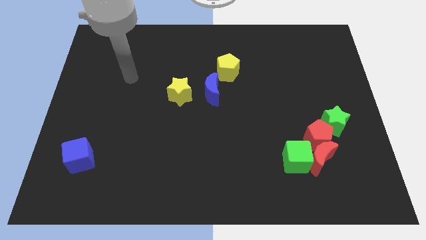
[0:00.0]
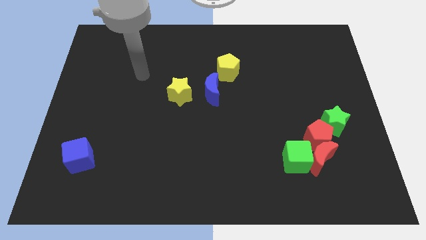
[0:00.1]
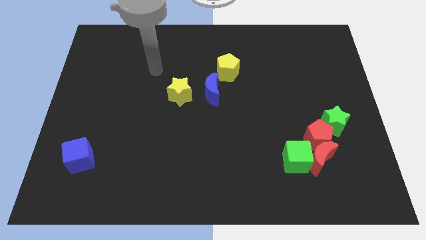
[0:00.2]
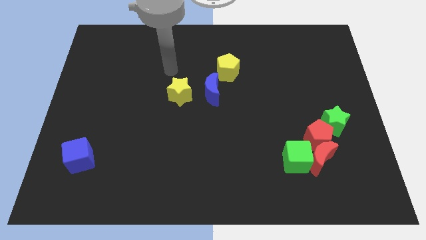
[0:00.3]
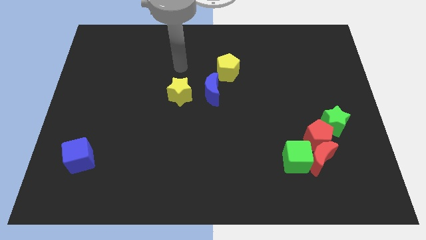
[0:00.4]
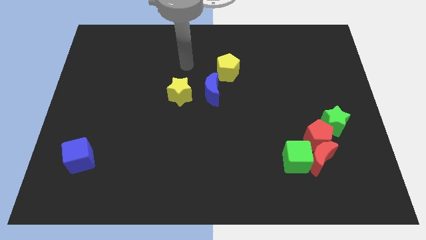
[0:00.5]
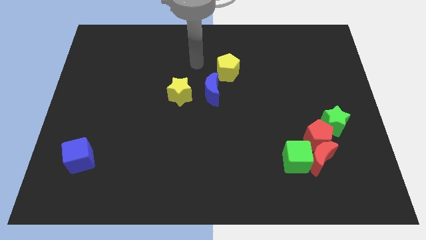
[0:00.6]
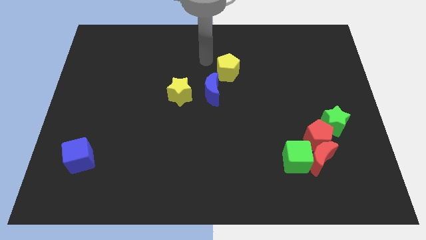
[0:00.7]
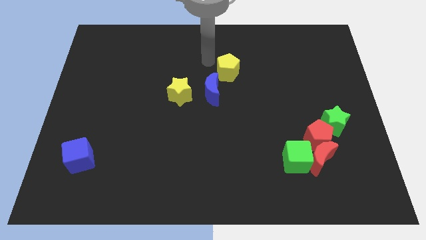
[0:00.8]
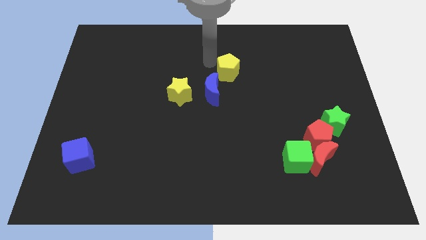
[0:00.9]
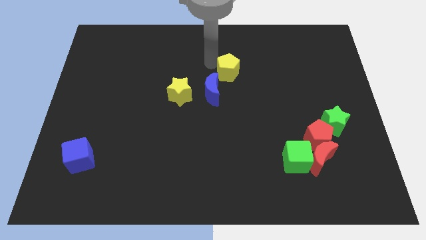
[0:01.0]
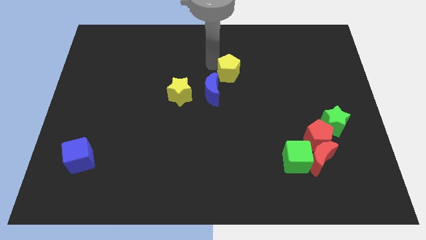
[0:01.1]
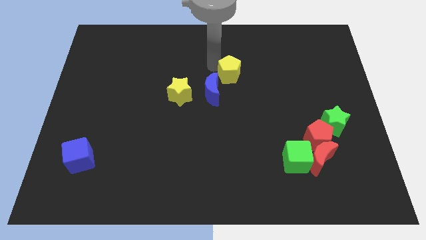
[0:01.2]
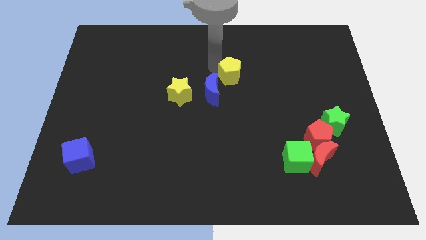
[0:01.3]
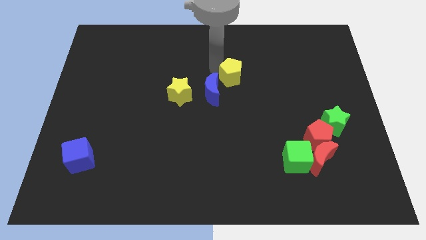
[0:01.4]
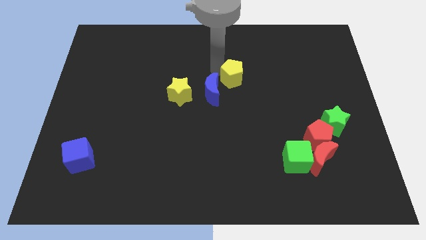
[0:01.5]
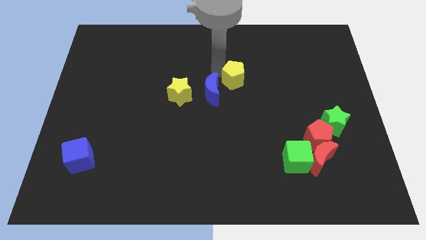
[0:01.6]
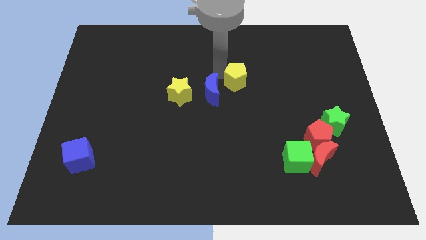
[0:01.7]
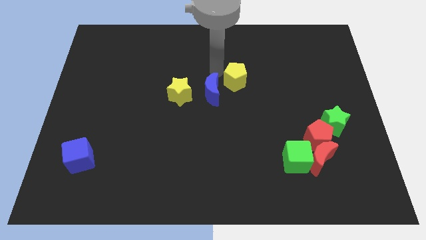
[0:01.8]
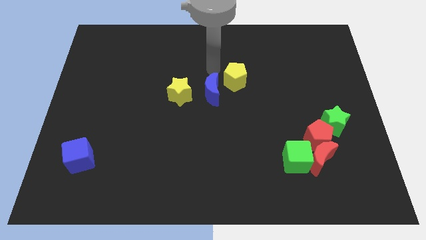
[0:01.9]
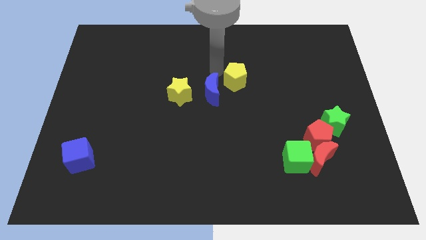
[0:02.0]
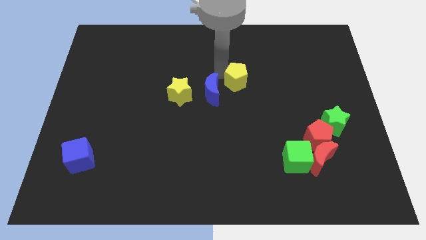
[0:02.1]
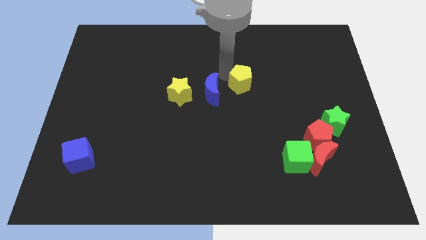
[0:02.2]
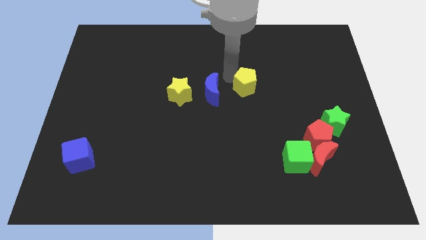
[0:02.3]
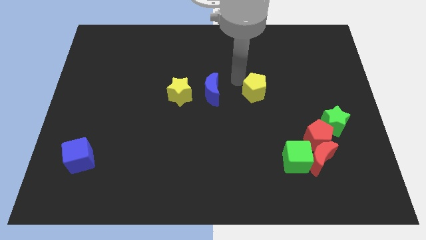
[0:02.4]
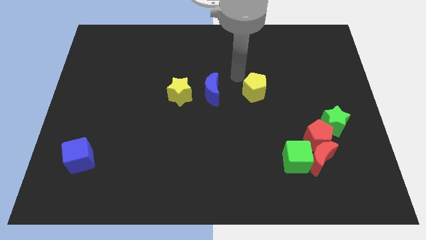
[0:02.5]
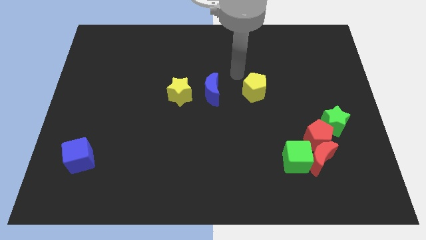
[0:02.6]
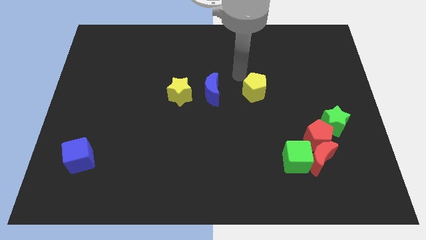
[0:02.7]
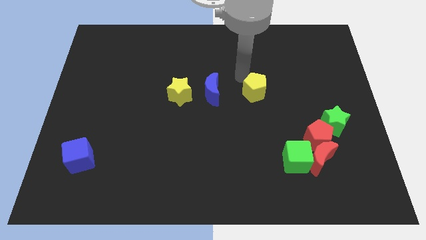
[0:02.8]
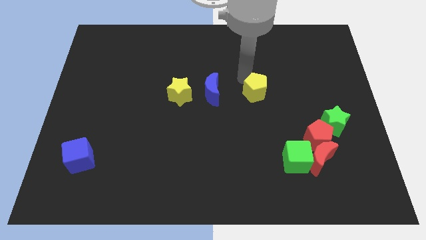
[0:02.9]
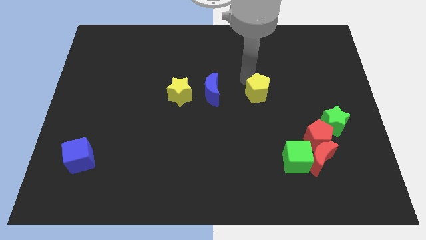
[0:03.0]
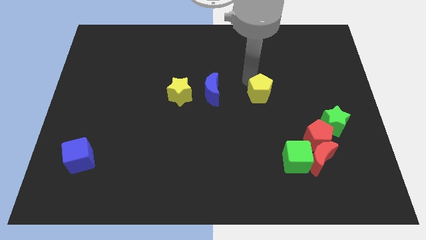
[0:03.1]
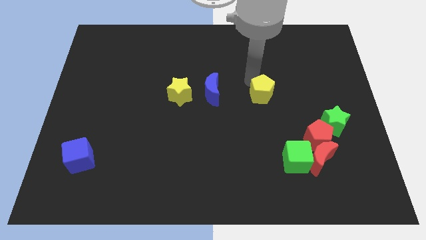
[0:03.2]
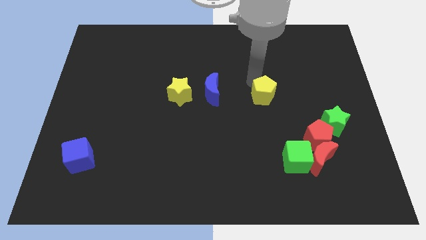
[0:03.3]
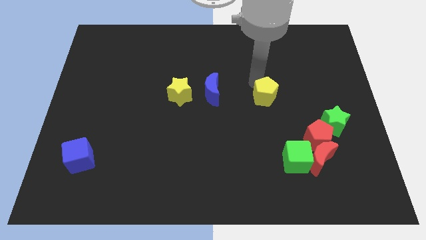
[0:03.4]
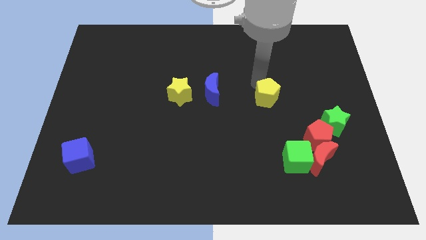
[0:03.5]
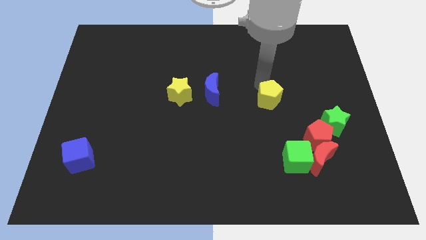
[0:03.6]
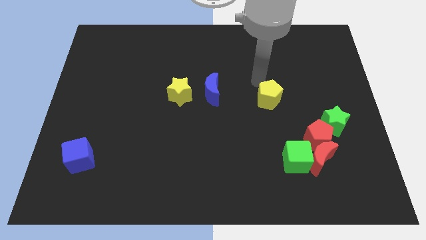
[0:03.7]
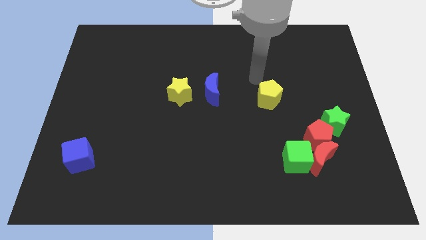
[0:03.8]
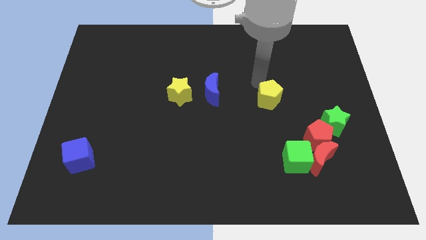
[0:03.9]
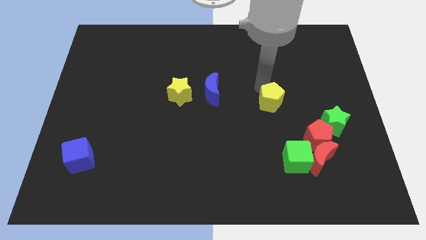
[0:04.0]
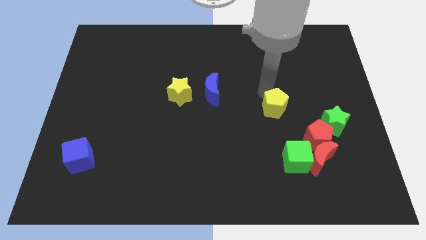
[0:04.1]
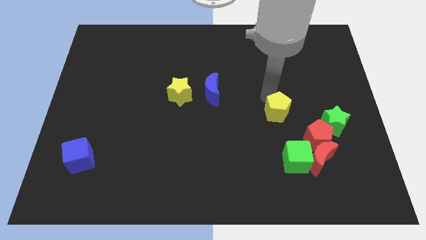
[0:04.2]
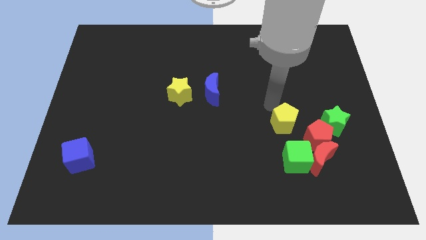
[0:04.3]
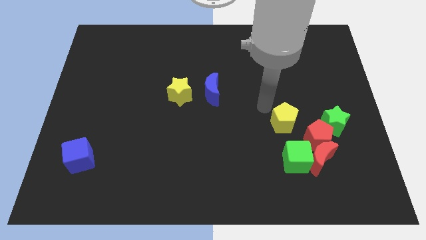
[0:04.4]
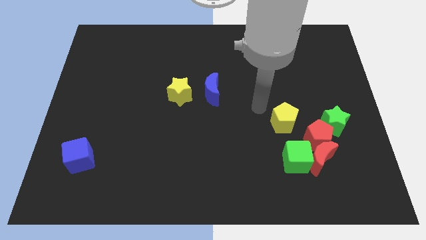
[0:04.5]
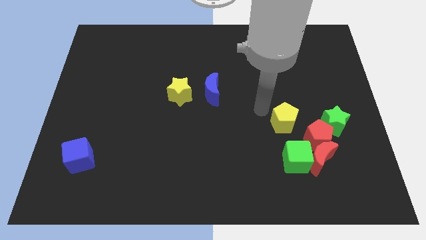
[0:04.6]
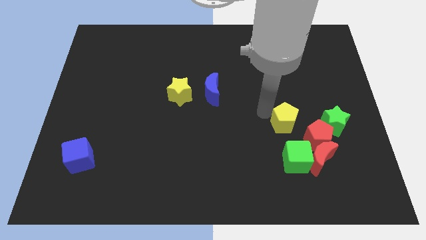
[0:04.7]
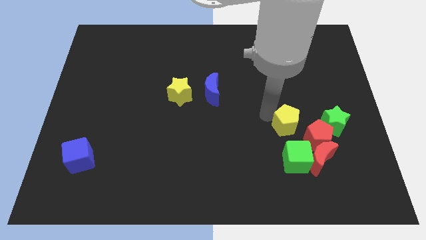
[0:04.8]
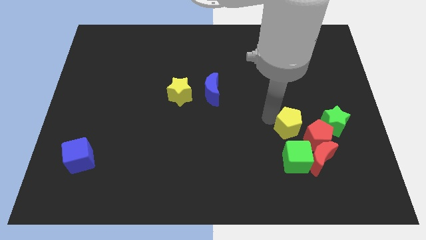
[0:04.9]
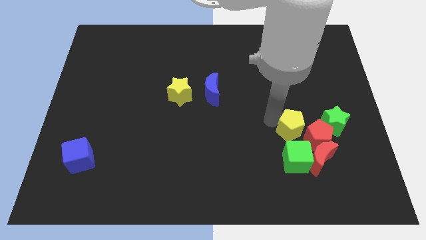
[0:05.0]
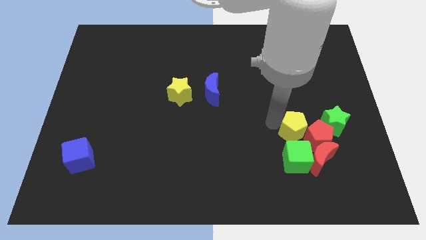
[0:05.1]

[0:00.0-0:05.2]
slide the yellow pentagon to the red pentagon

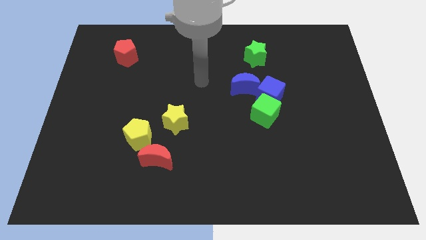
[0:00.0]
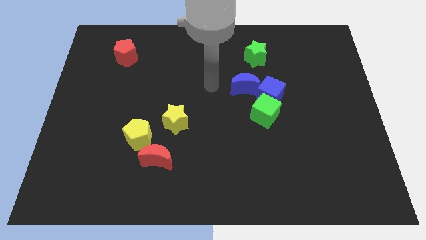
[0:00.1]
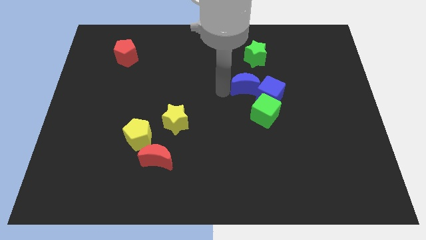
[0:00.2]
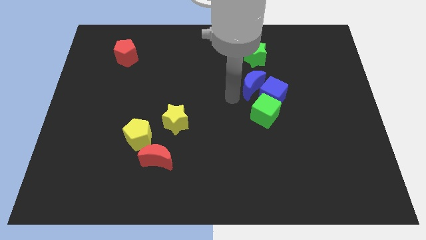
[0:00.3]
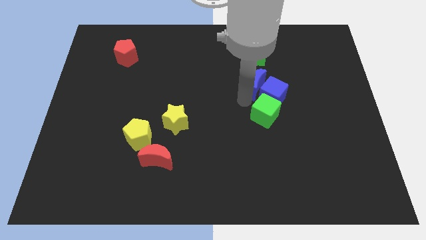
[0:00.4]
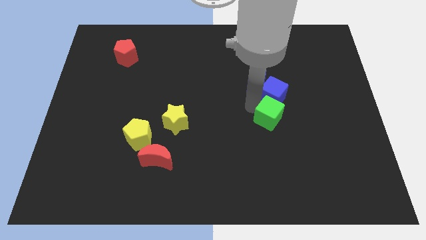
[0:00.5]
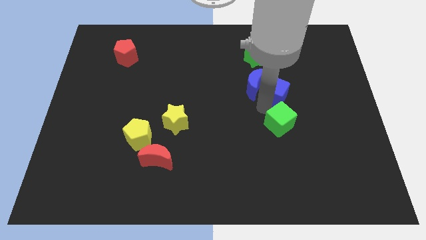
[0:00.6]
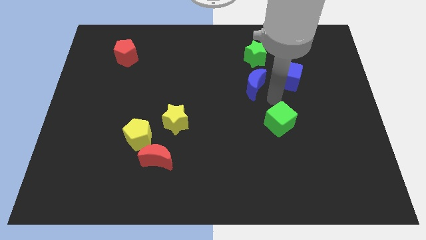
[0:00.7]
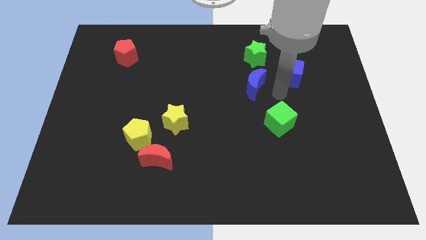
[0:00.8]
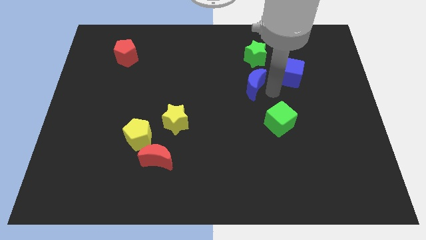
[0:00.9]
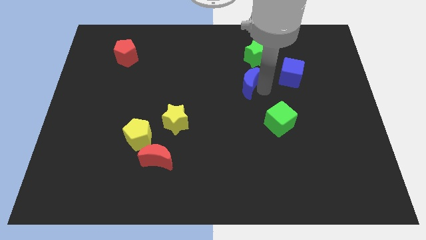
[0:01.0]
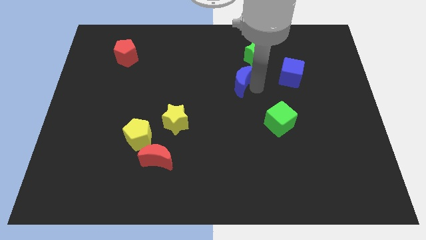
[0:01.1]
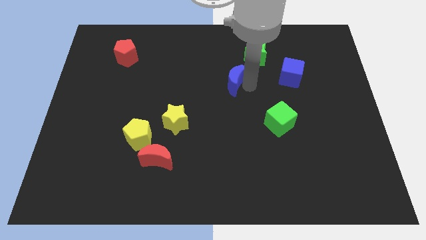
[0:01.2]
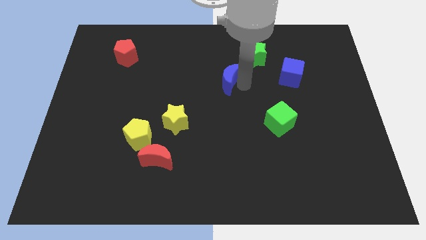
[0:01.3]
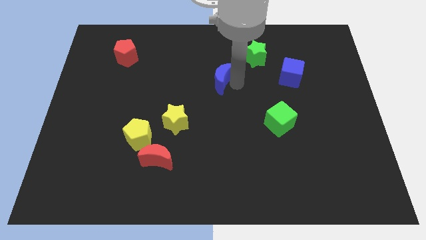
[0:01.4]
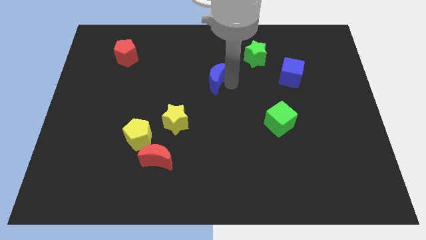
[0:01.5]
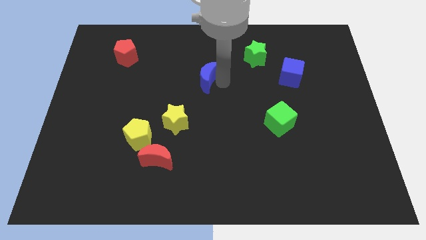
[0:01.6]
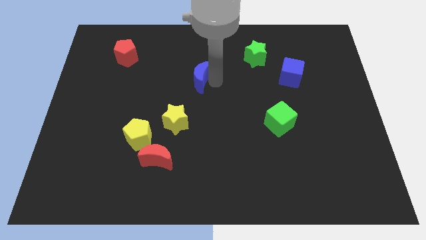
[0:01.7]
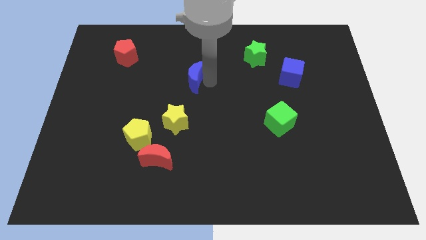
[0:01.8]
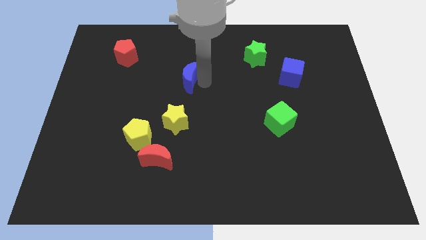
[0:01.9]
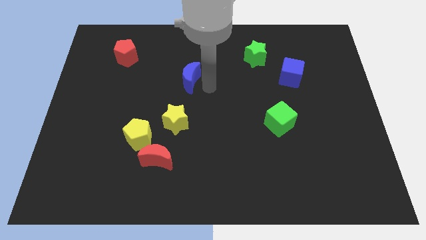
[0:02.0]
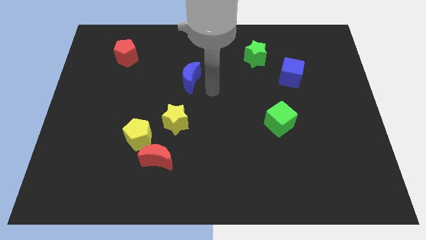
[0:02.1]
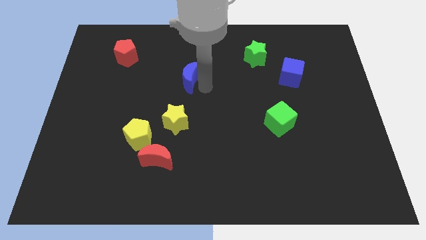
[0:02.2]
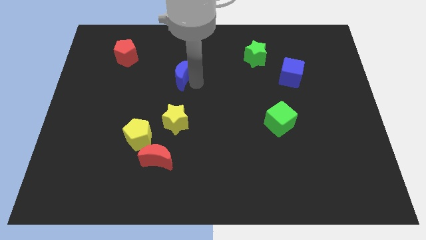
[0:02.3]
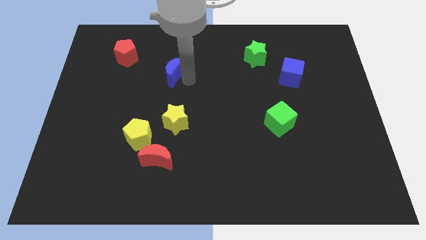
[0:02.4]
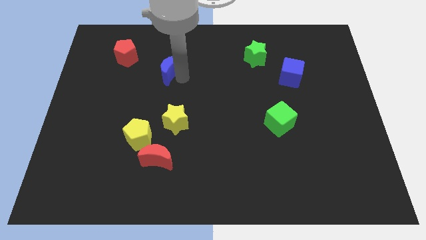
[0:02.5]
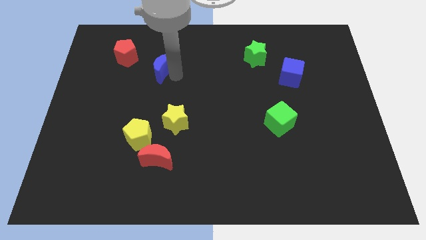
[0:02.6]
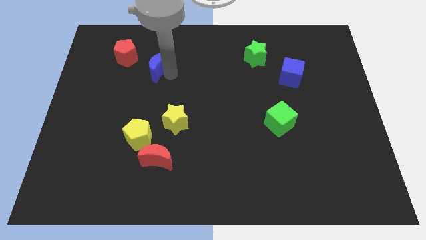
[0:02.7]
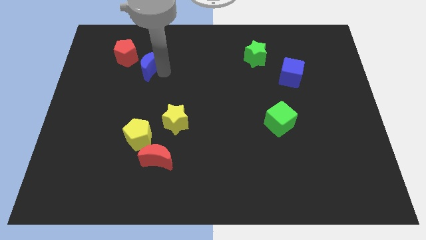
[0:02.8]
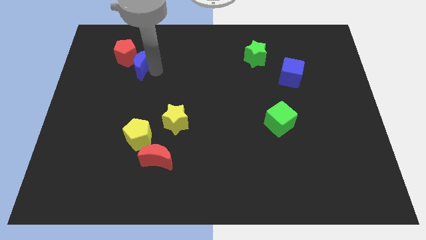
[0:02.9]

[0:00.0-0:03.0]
put the blue moon next to the red pentagon
